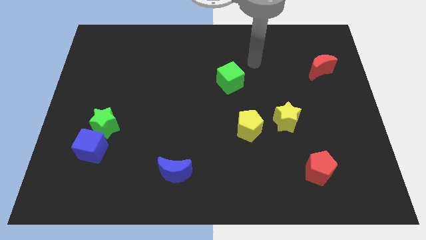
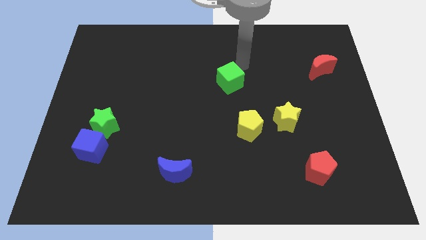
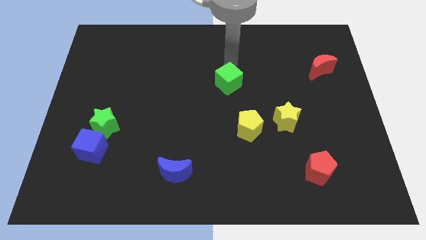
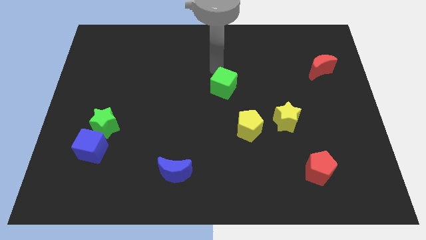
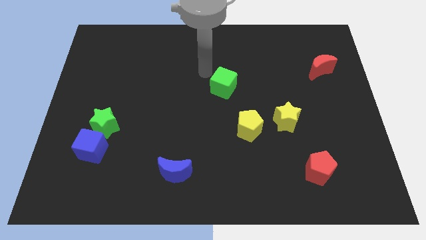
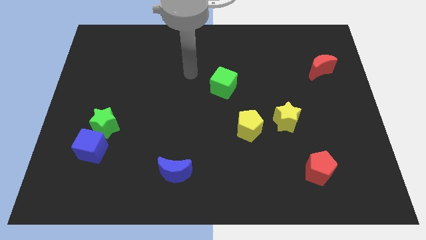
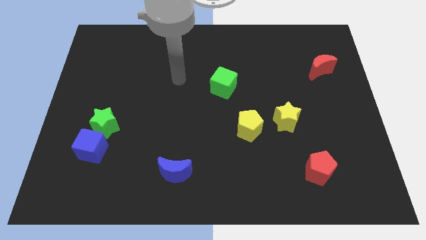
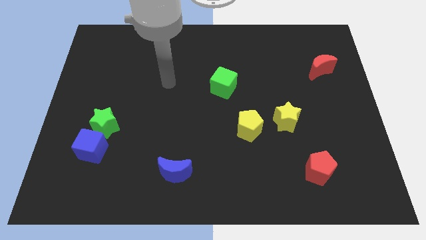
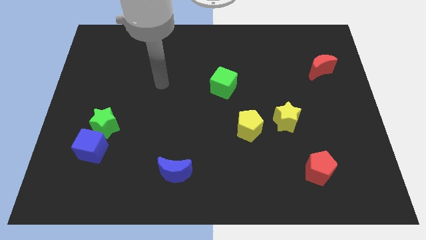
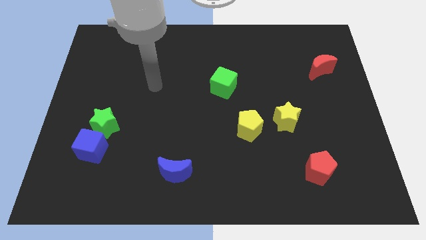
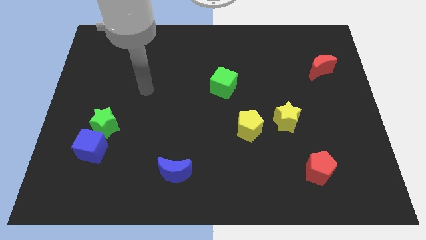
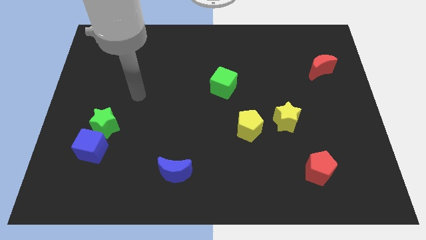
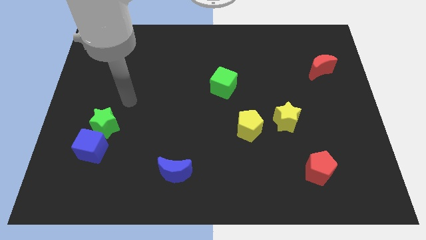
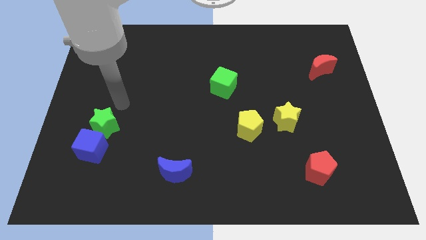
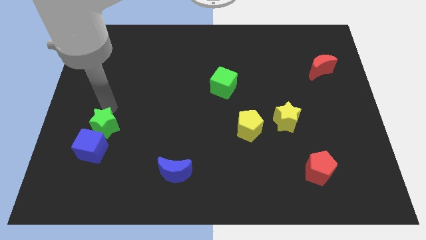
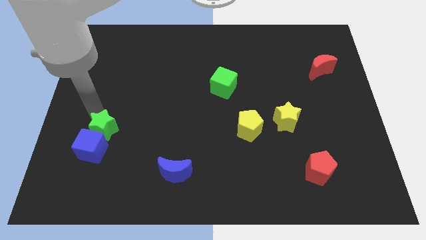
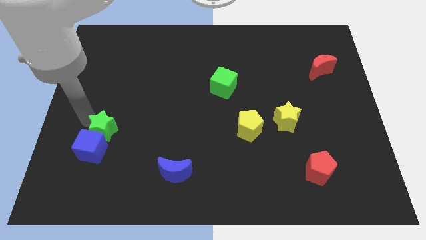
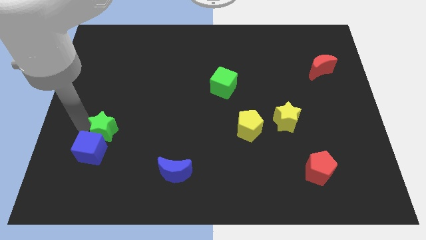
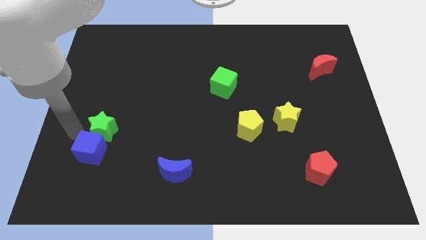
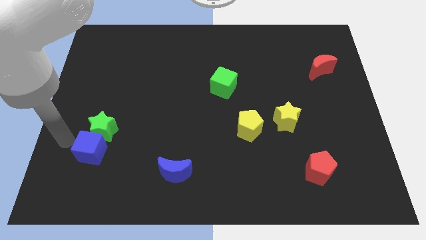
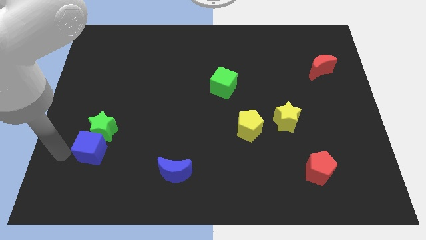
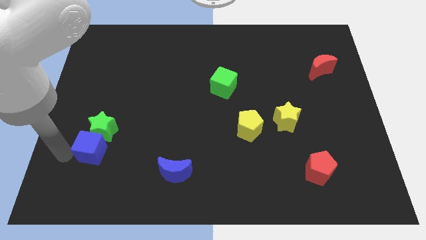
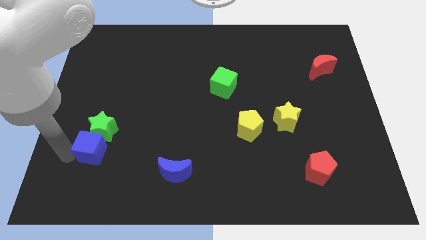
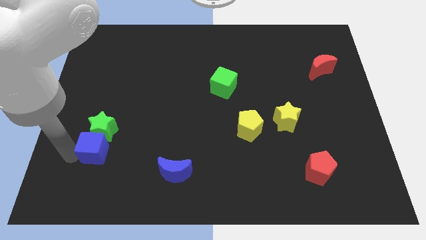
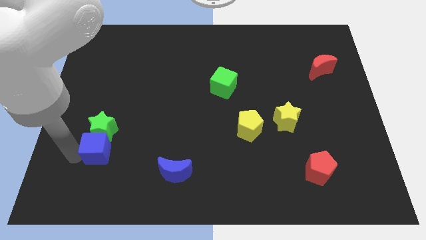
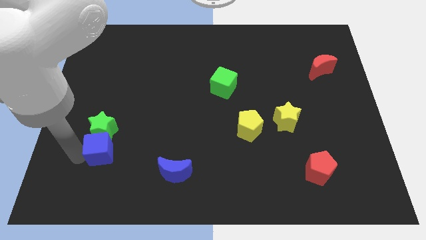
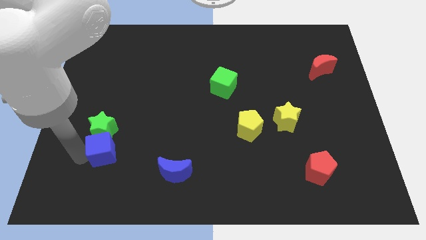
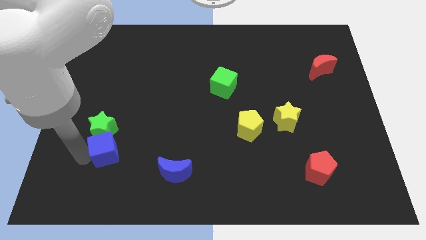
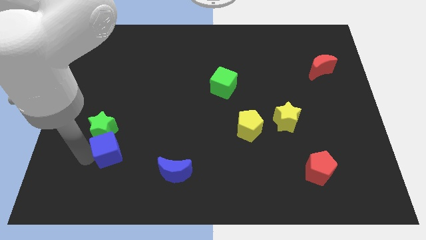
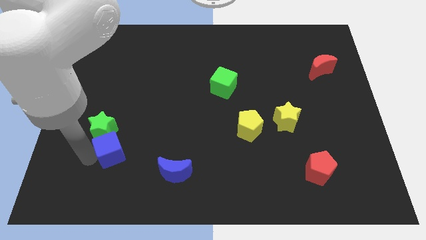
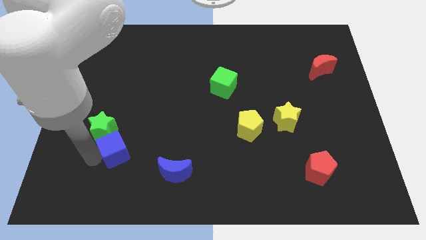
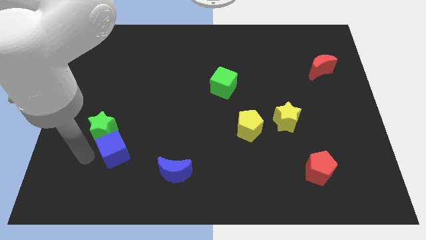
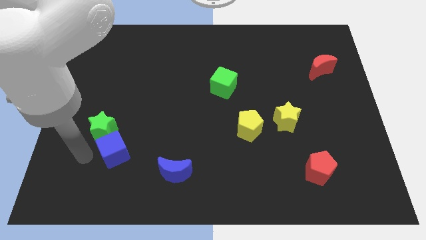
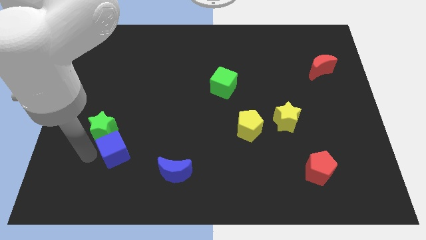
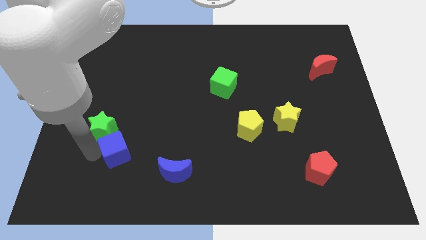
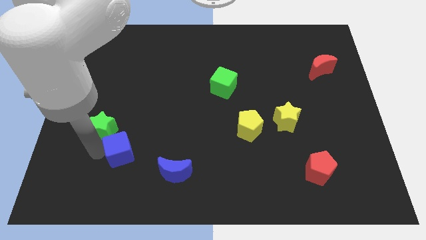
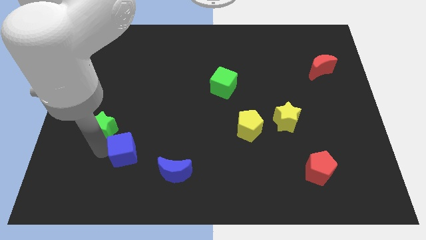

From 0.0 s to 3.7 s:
slide the blue cube slightly to the right

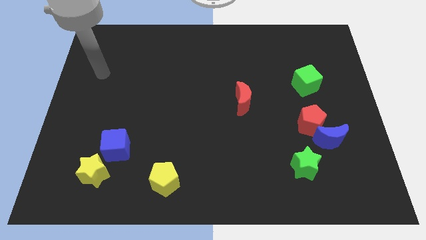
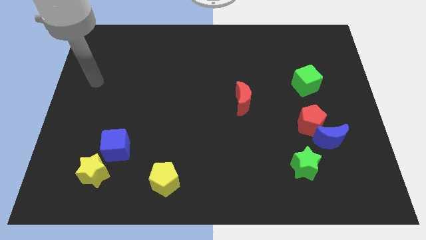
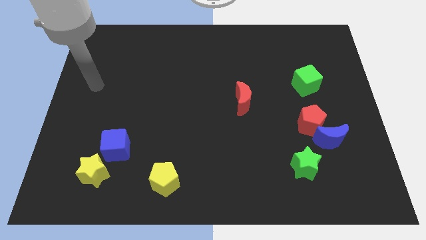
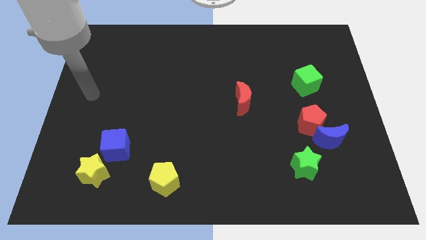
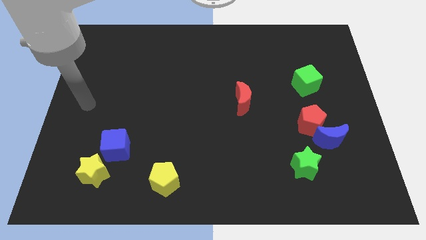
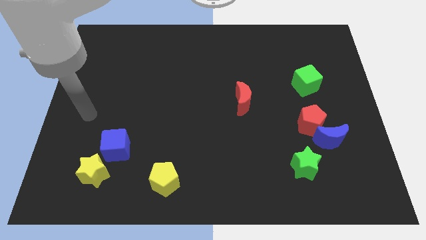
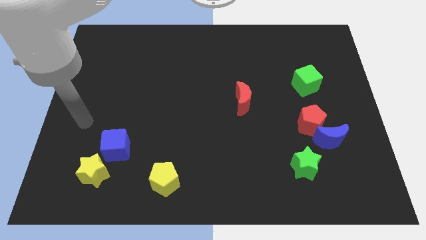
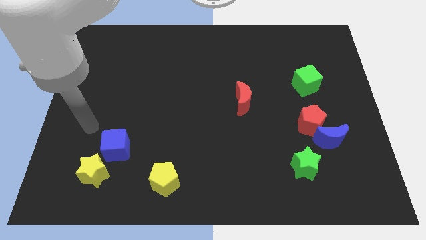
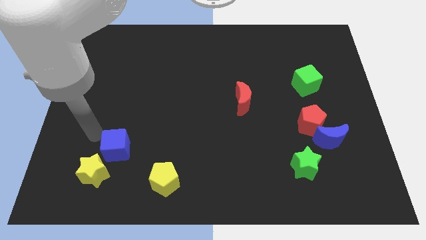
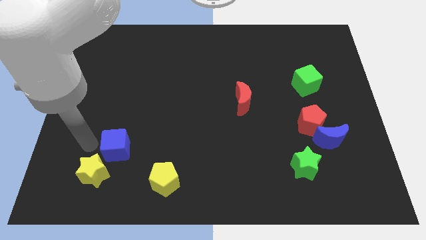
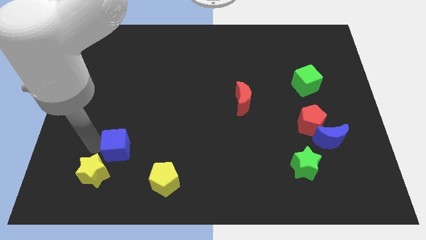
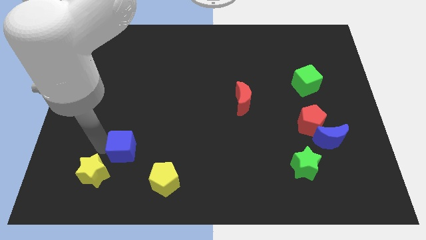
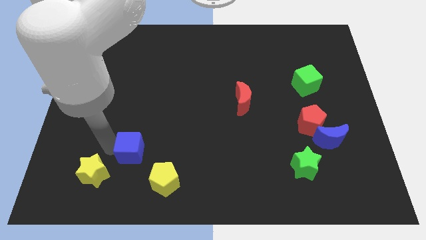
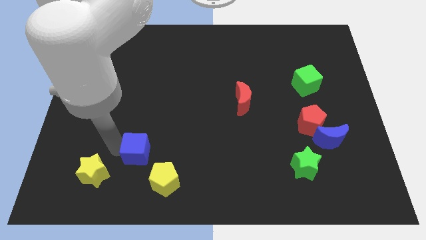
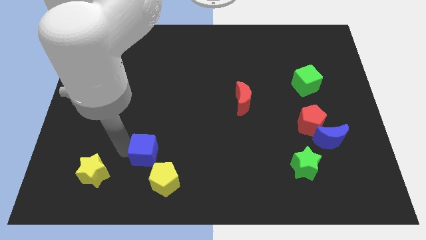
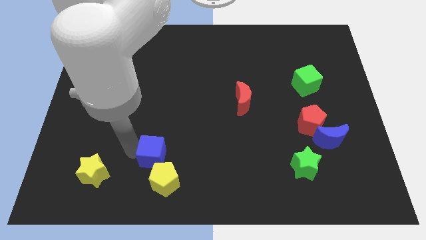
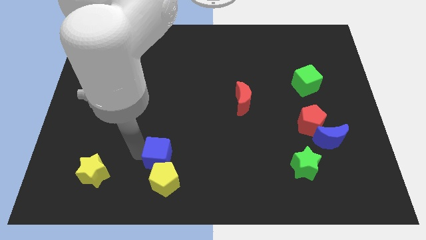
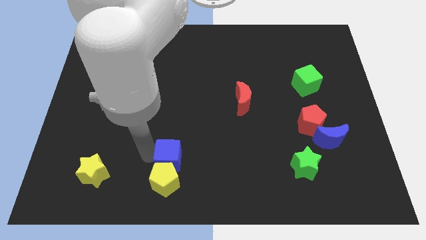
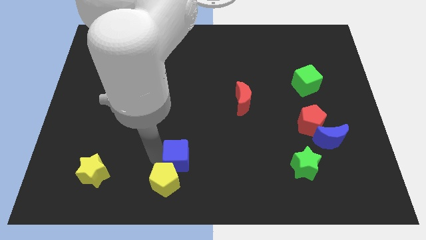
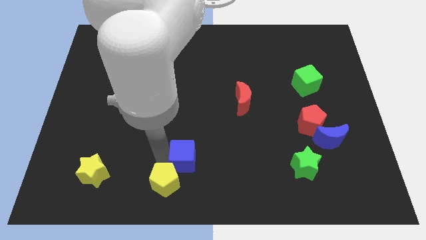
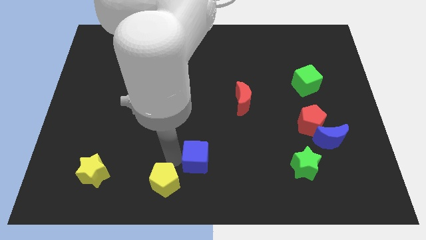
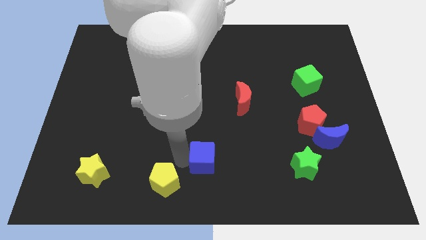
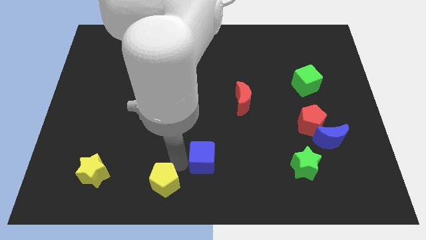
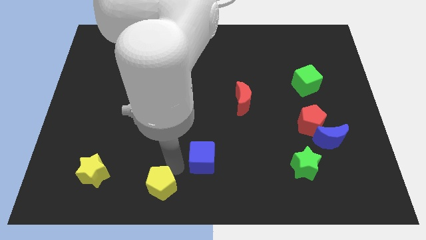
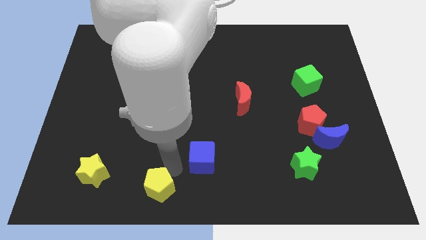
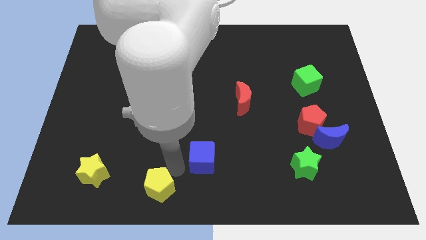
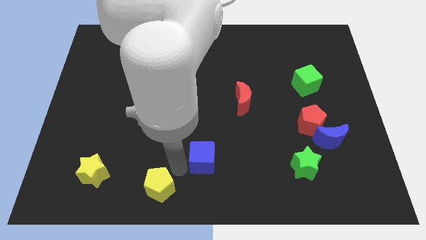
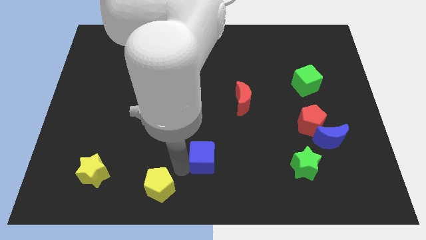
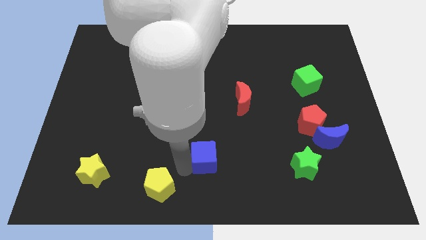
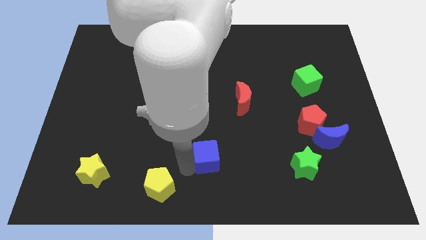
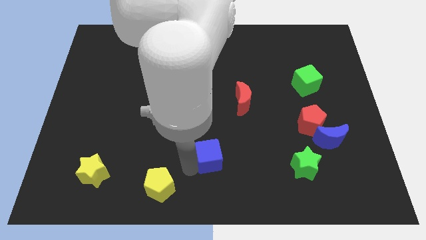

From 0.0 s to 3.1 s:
move the blue cube right

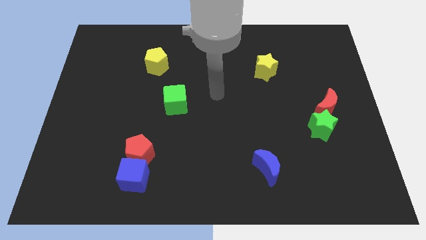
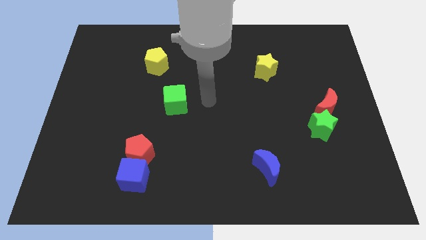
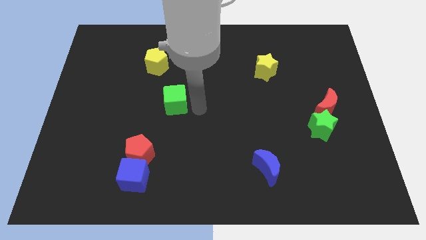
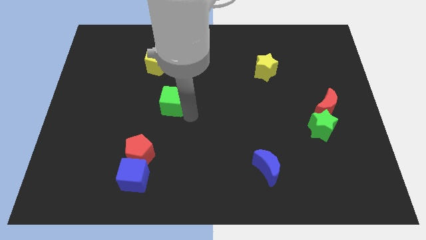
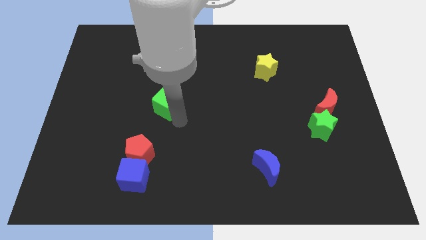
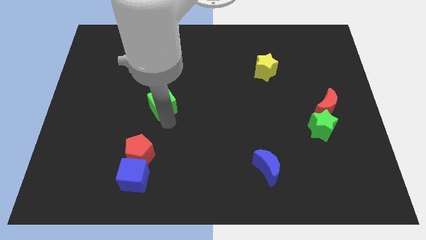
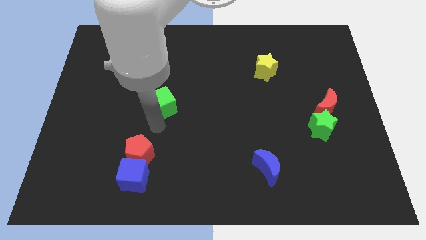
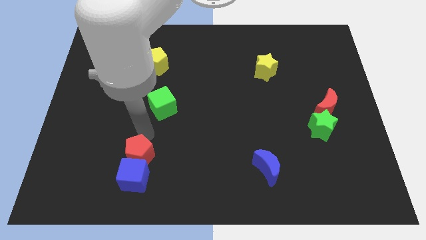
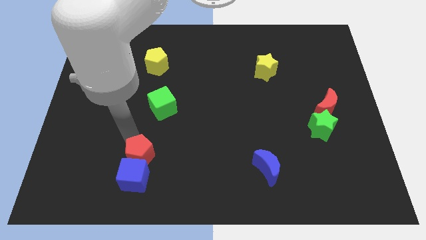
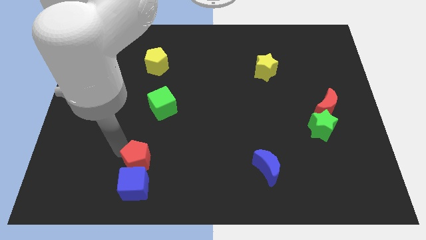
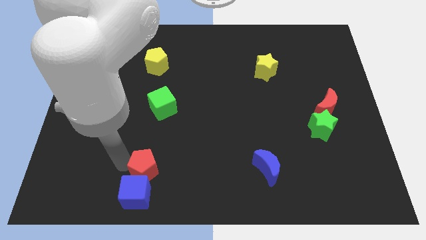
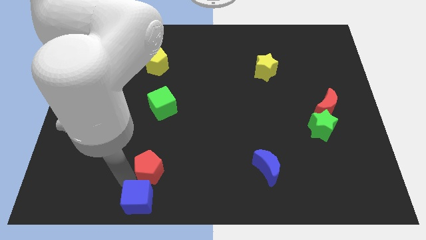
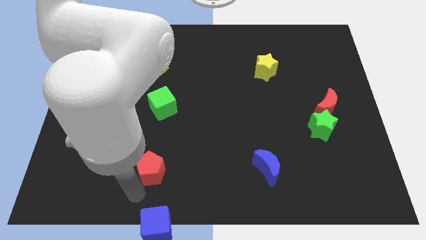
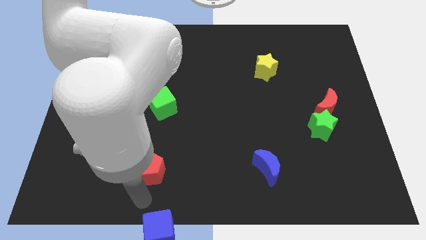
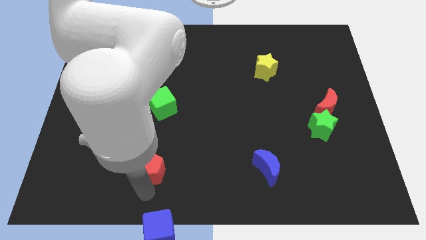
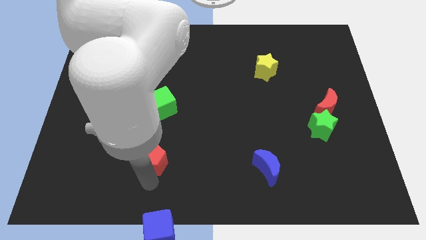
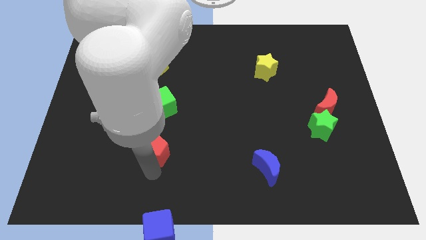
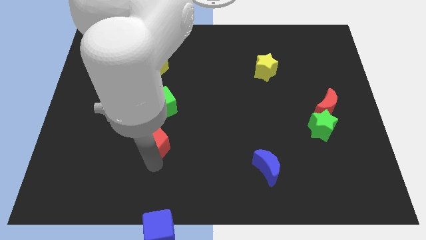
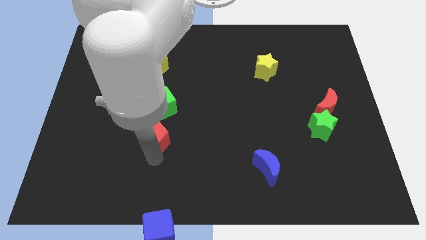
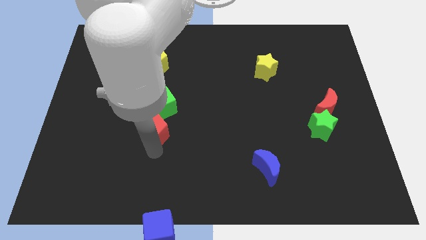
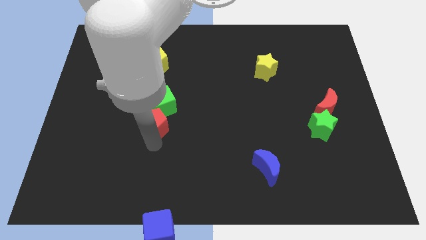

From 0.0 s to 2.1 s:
slightly push the red pentagon upwards and right
